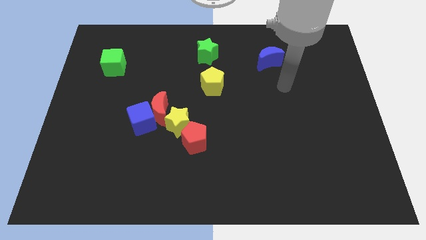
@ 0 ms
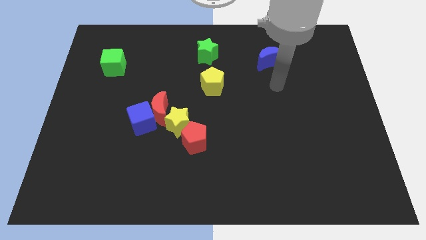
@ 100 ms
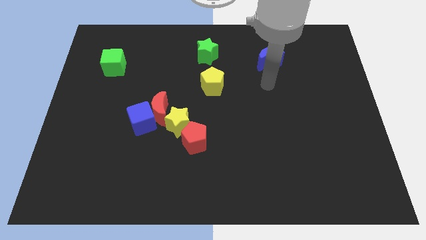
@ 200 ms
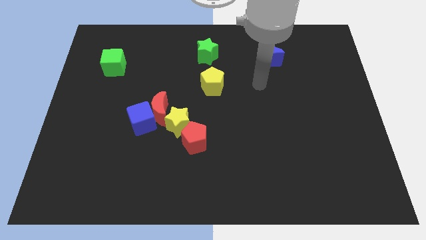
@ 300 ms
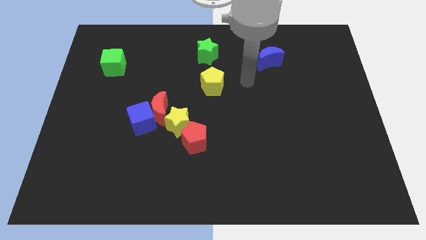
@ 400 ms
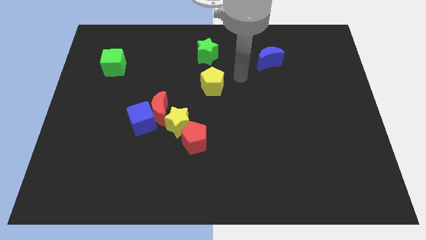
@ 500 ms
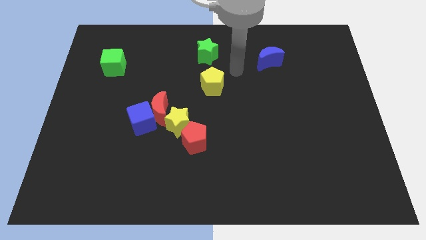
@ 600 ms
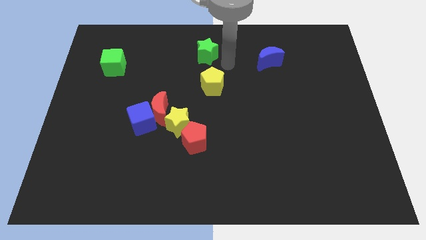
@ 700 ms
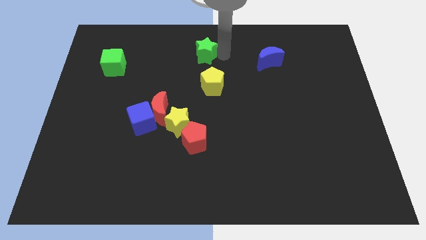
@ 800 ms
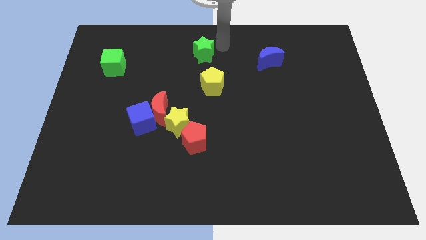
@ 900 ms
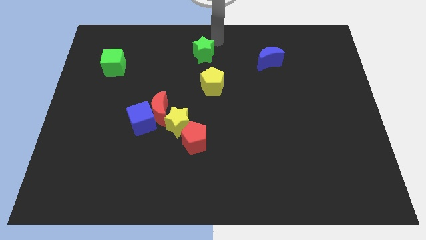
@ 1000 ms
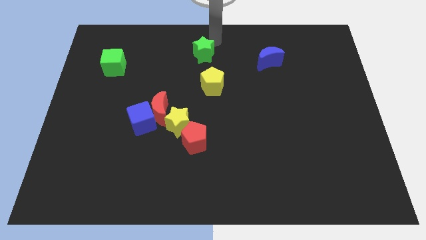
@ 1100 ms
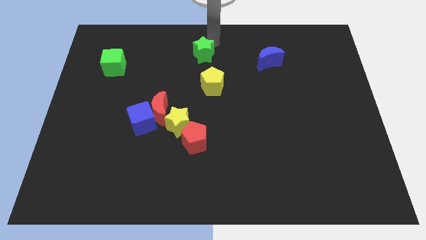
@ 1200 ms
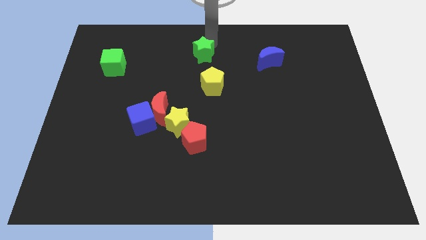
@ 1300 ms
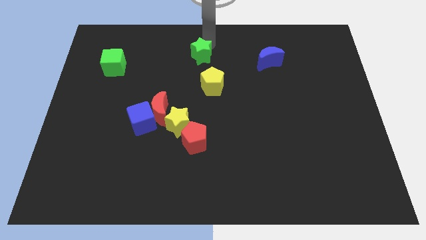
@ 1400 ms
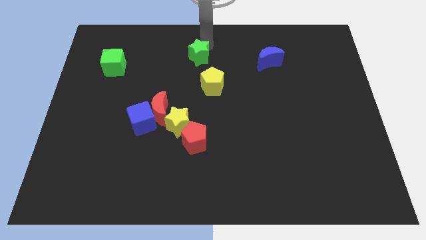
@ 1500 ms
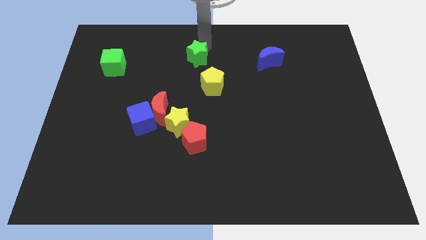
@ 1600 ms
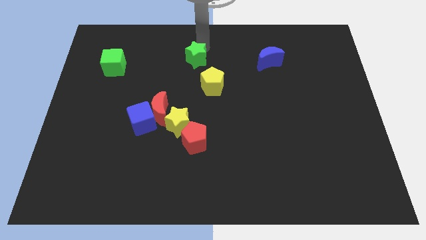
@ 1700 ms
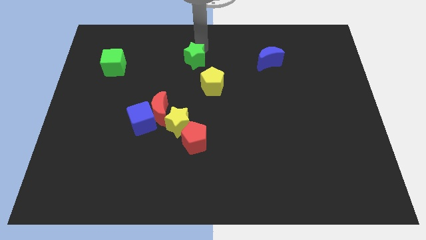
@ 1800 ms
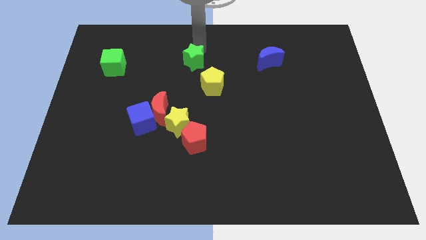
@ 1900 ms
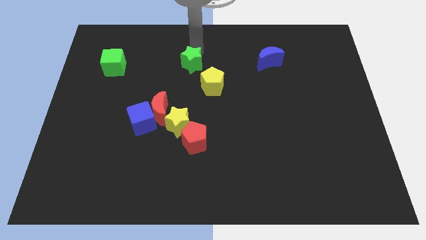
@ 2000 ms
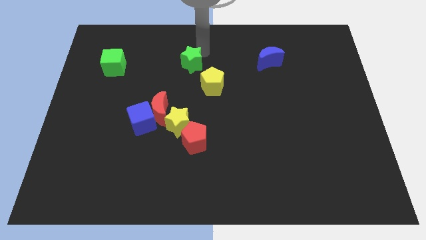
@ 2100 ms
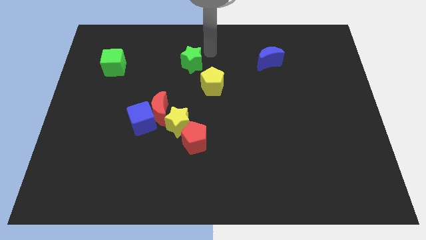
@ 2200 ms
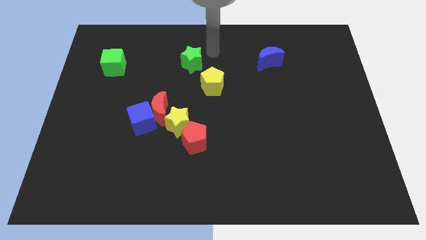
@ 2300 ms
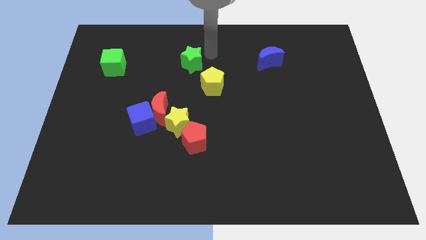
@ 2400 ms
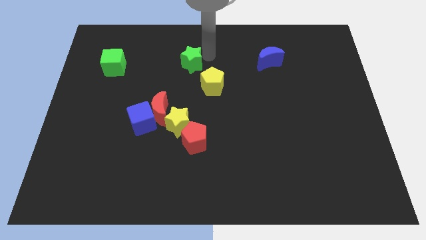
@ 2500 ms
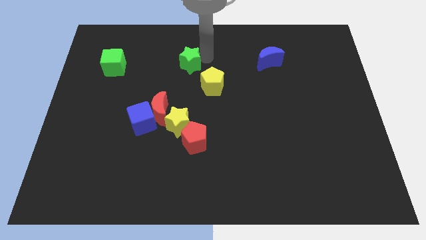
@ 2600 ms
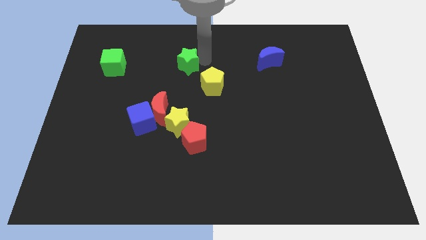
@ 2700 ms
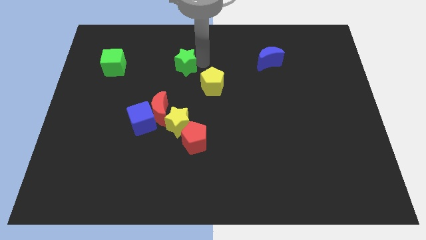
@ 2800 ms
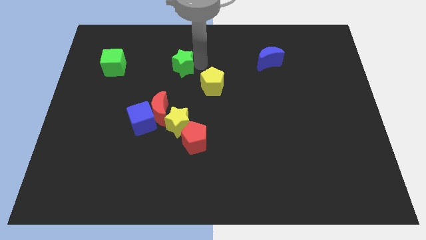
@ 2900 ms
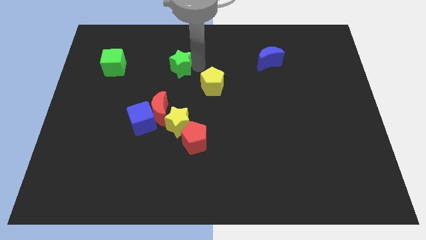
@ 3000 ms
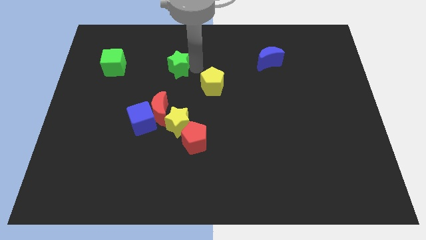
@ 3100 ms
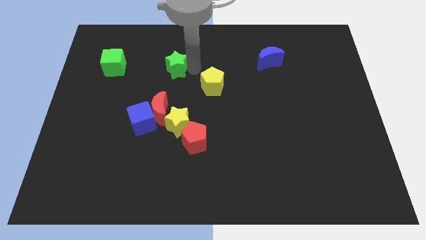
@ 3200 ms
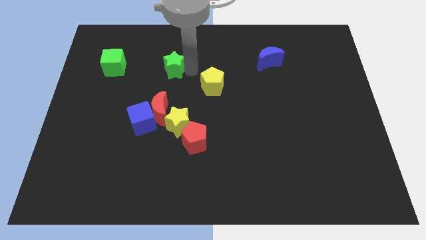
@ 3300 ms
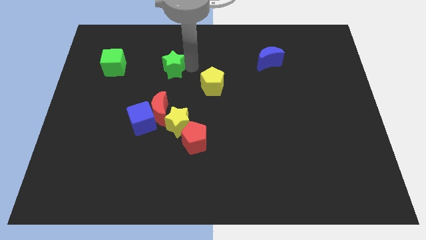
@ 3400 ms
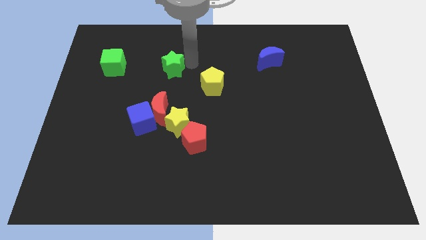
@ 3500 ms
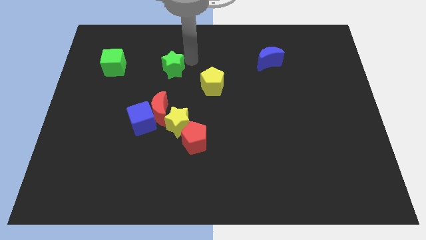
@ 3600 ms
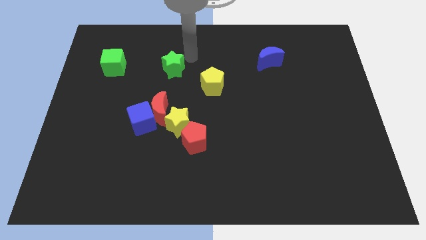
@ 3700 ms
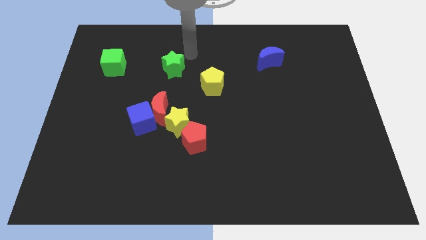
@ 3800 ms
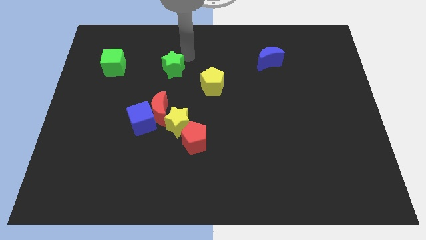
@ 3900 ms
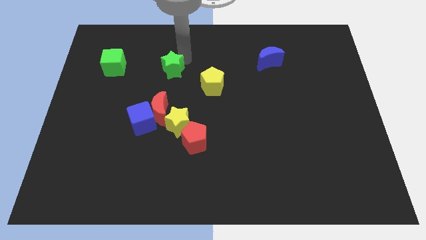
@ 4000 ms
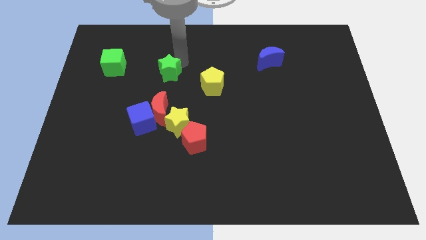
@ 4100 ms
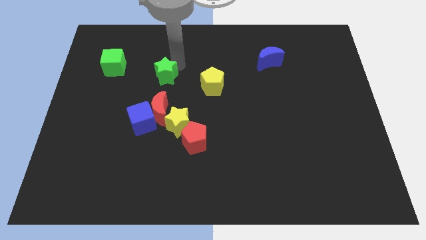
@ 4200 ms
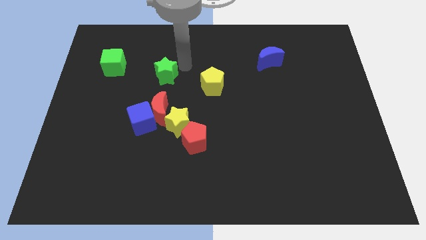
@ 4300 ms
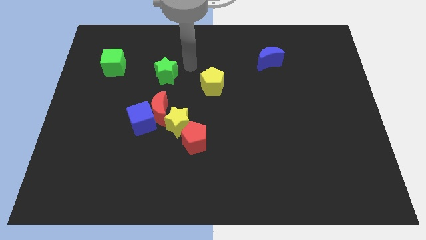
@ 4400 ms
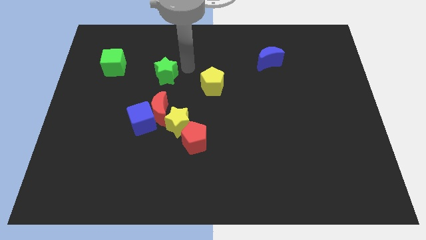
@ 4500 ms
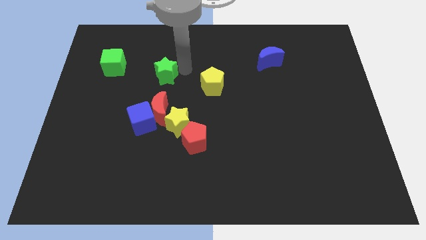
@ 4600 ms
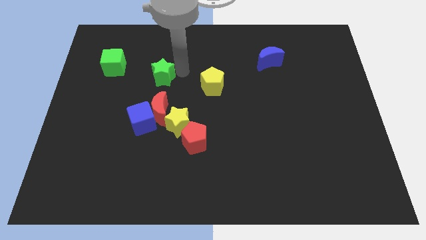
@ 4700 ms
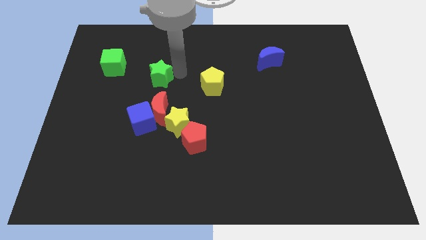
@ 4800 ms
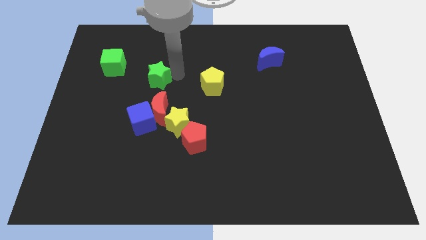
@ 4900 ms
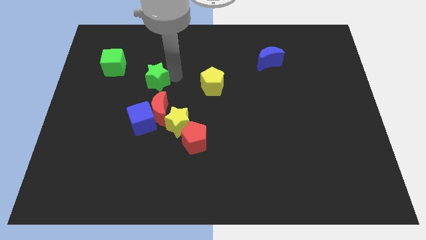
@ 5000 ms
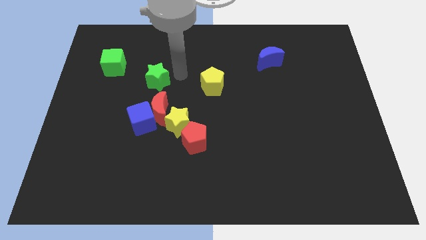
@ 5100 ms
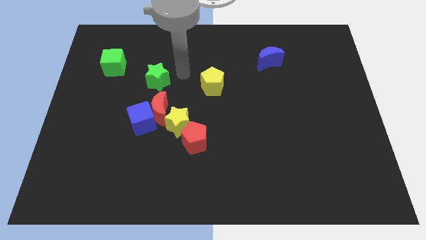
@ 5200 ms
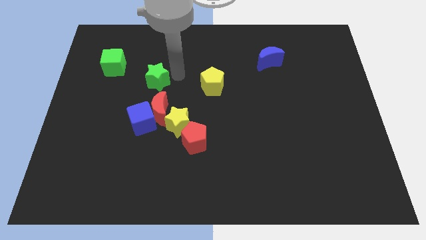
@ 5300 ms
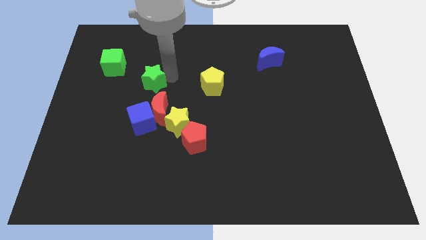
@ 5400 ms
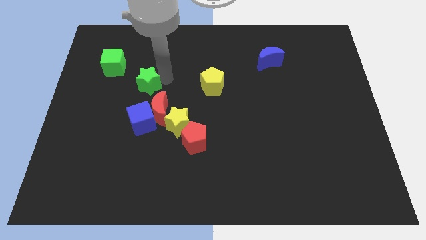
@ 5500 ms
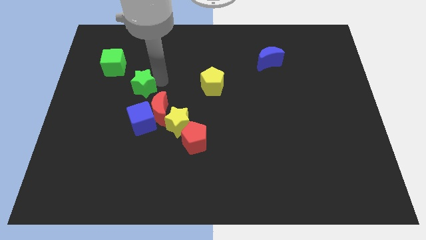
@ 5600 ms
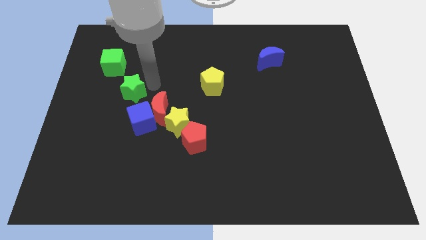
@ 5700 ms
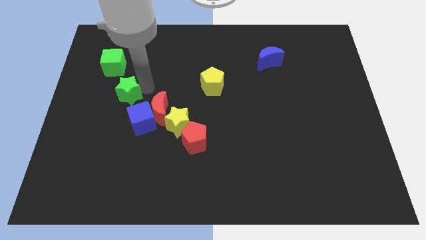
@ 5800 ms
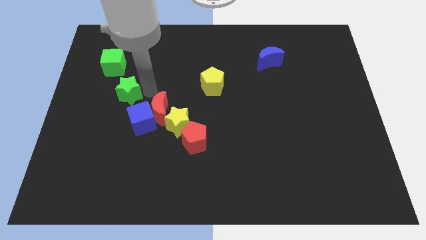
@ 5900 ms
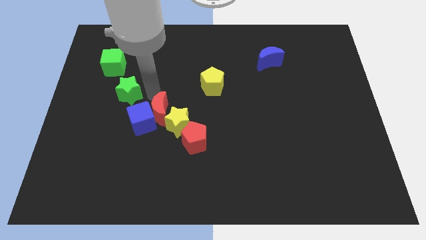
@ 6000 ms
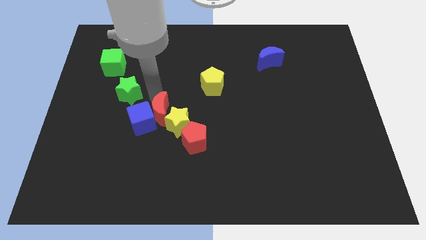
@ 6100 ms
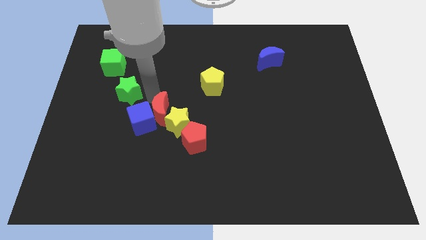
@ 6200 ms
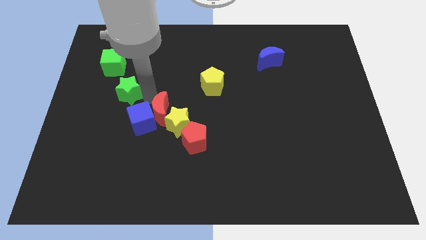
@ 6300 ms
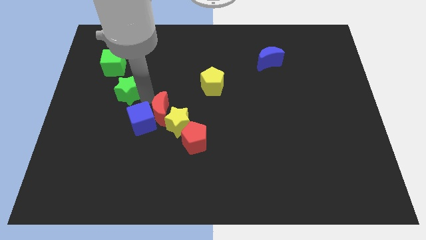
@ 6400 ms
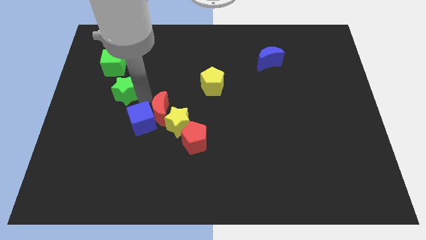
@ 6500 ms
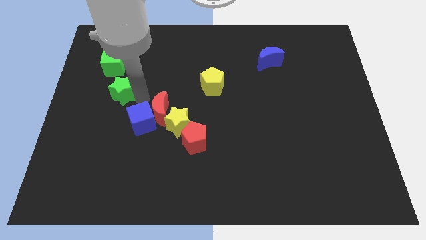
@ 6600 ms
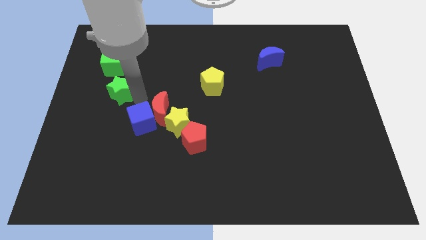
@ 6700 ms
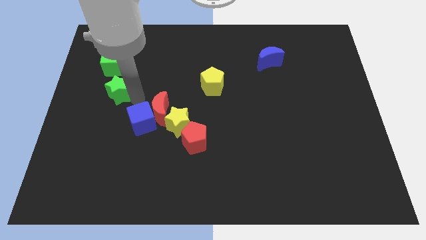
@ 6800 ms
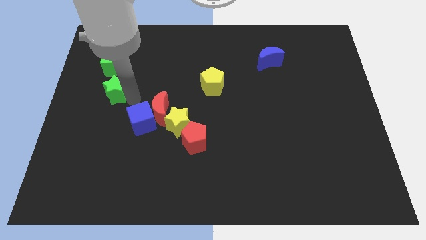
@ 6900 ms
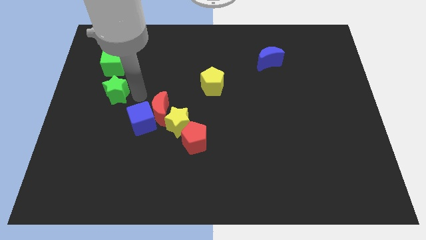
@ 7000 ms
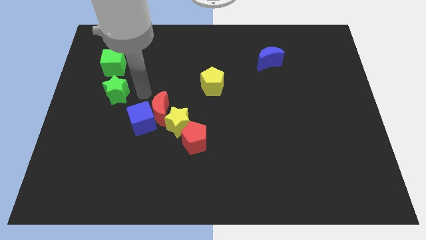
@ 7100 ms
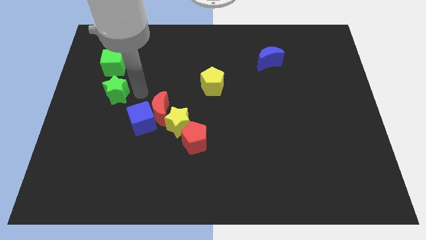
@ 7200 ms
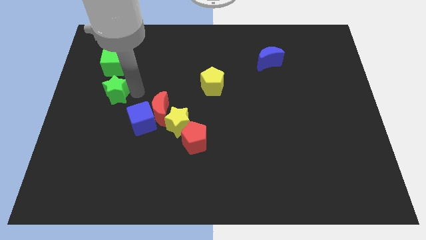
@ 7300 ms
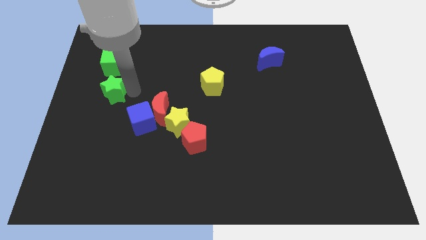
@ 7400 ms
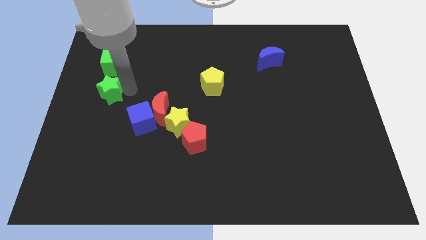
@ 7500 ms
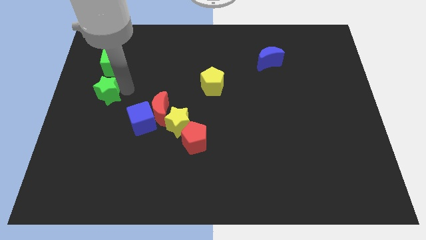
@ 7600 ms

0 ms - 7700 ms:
push the green star to the center left
